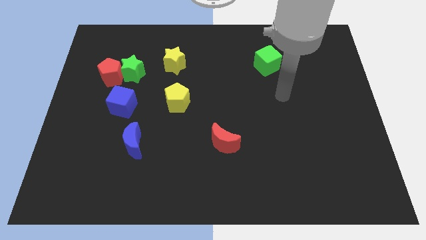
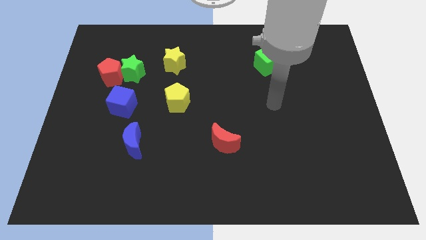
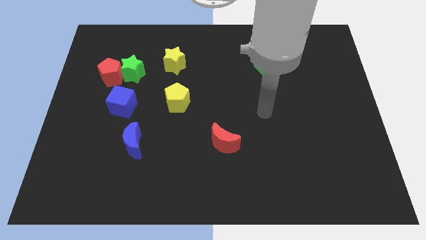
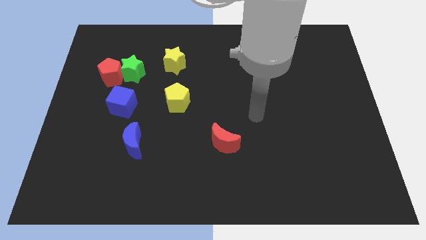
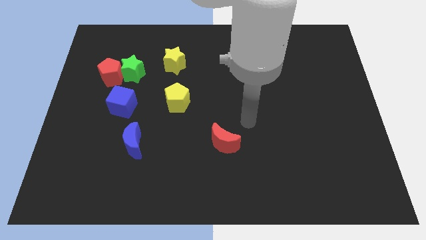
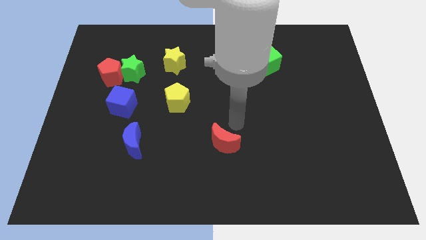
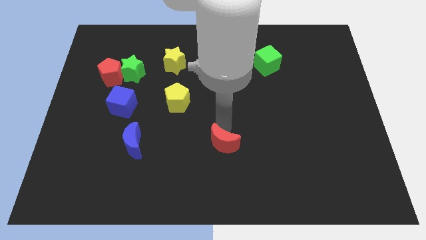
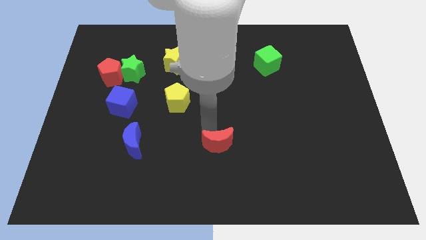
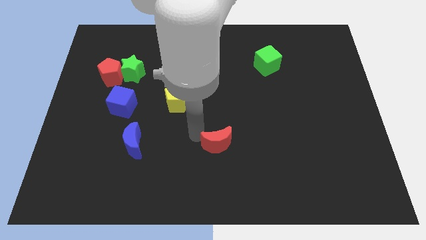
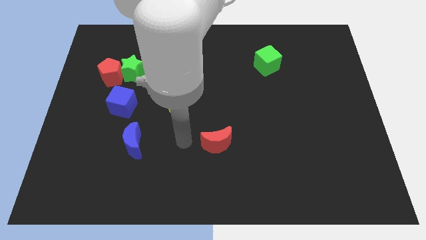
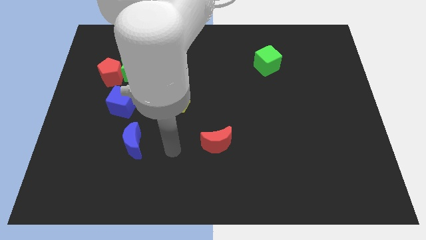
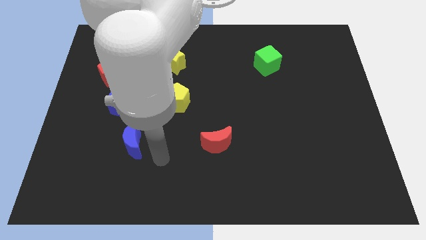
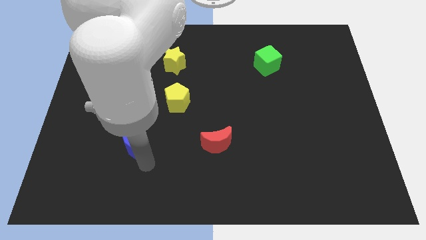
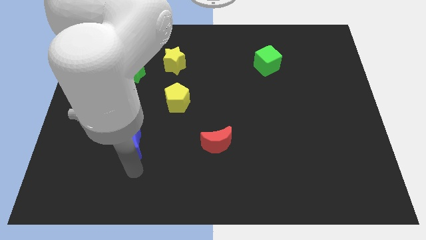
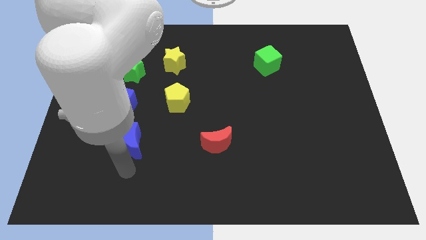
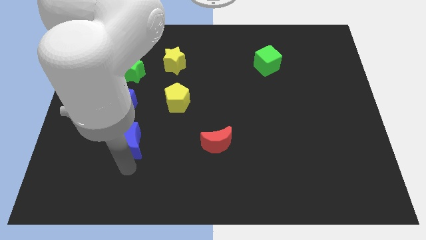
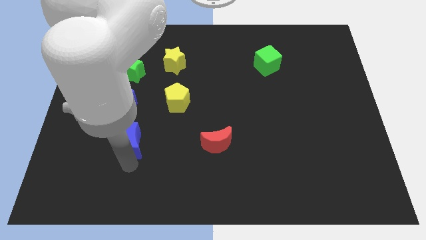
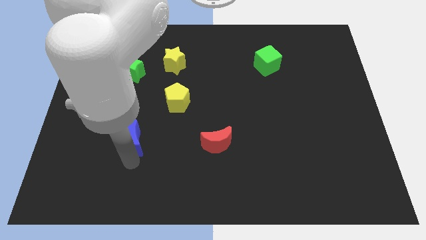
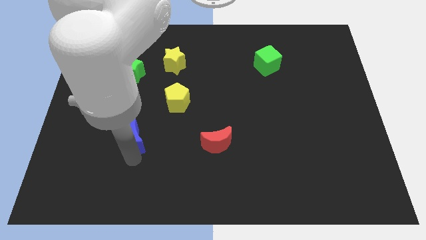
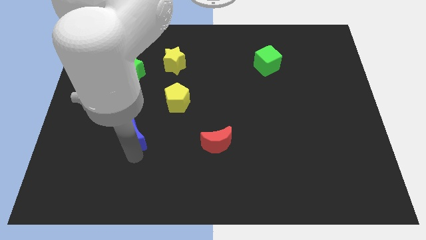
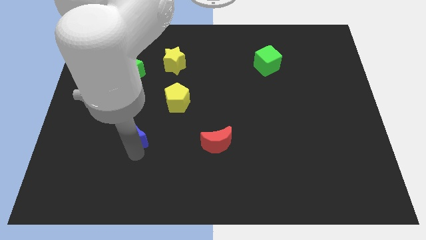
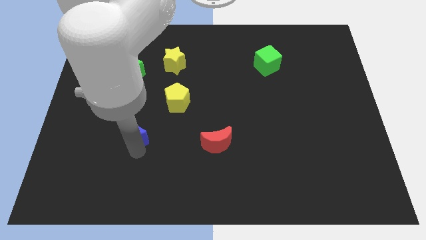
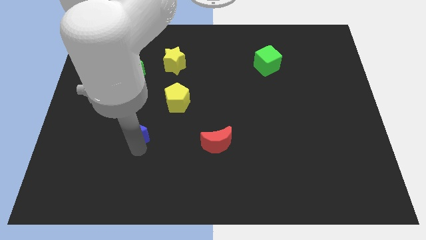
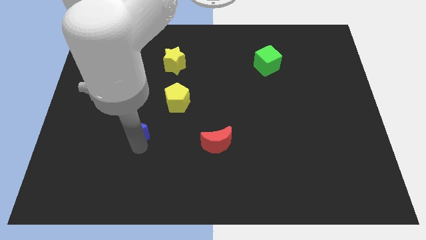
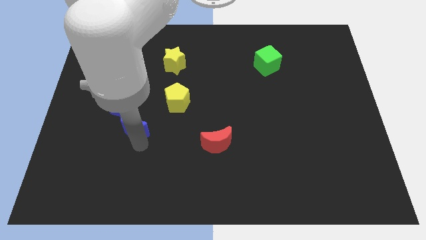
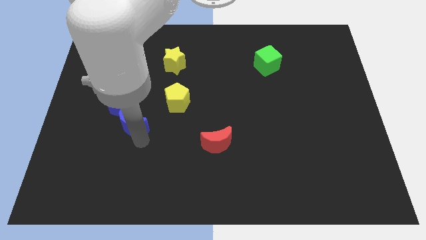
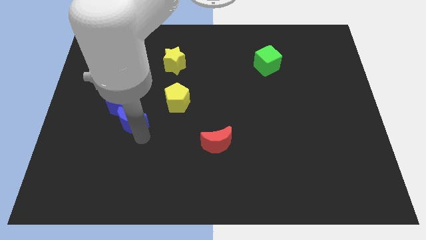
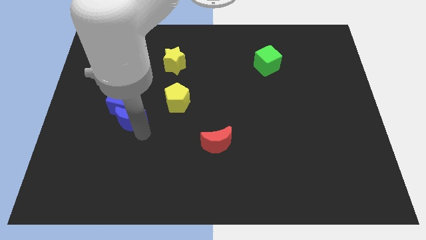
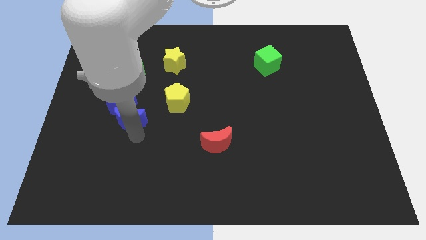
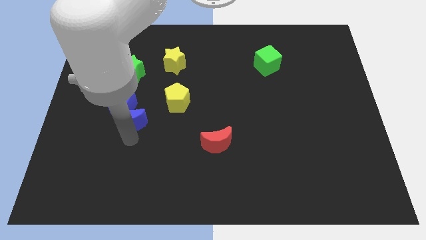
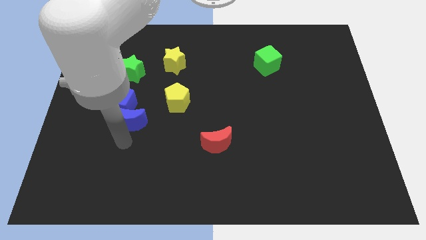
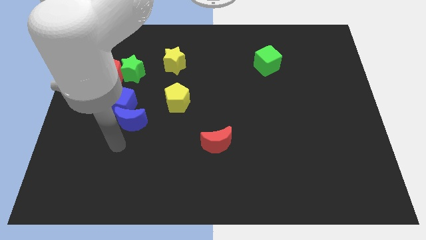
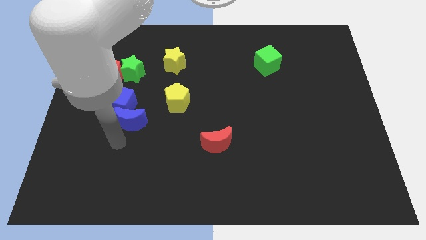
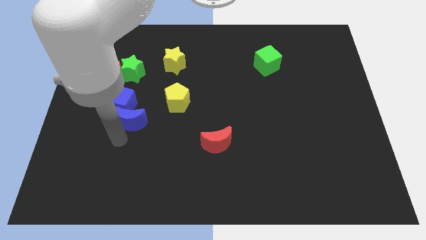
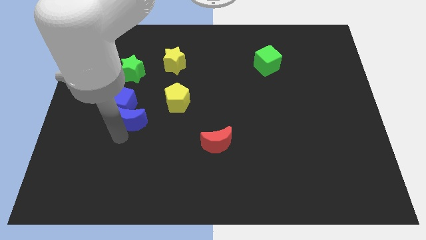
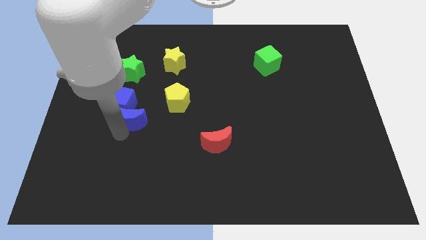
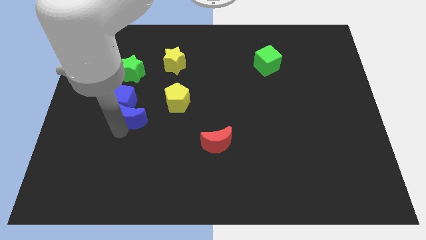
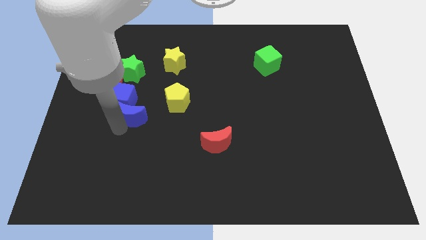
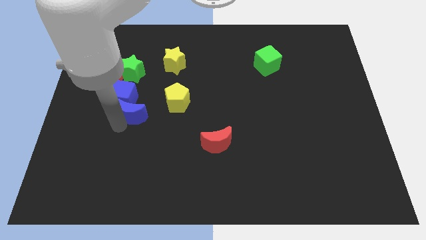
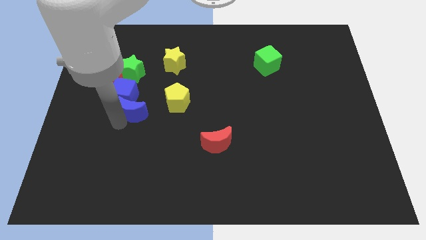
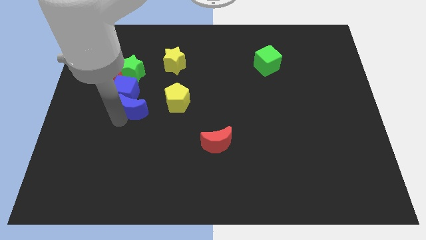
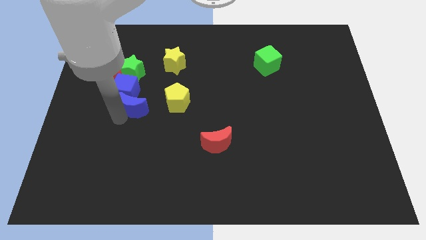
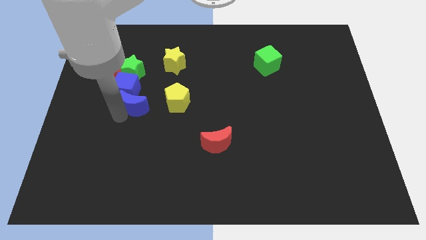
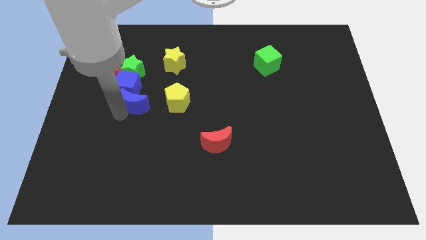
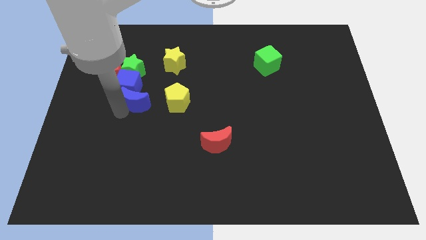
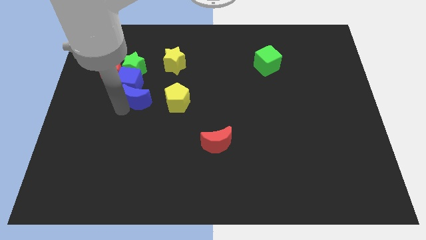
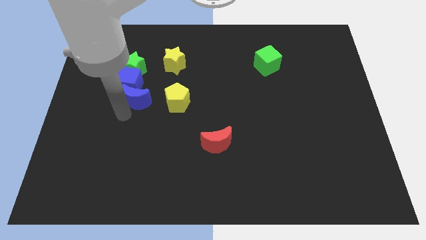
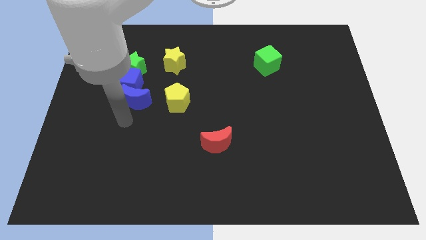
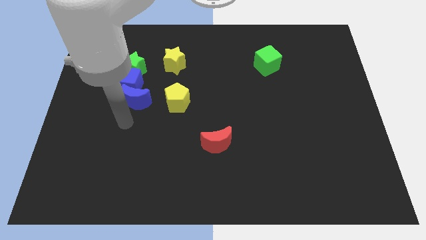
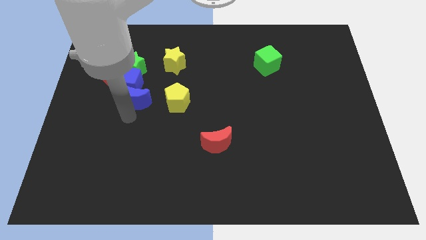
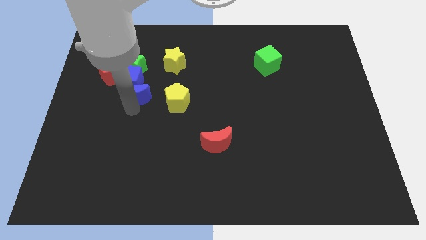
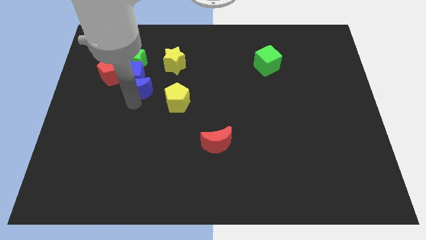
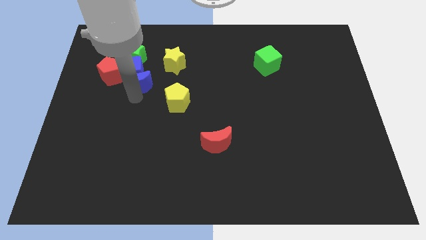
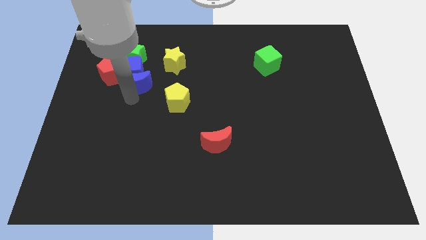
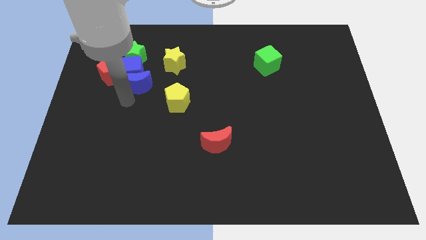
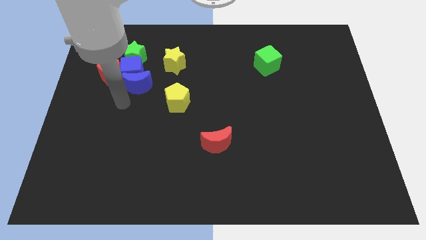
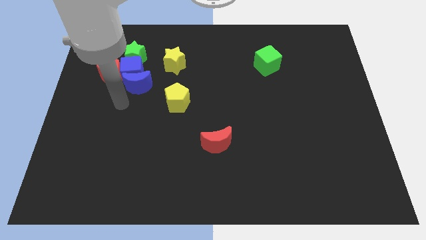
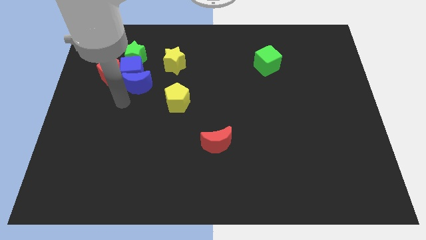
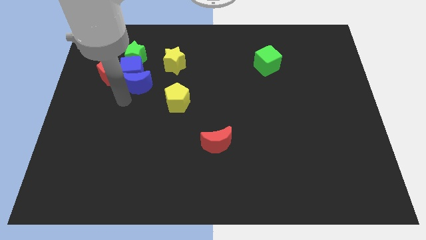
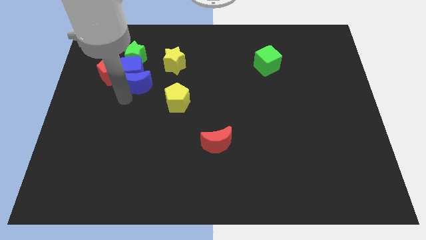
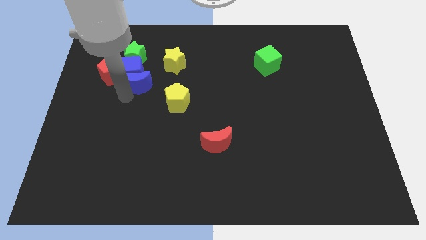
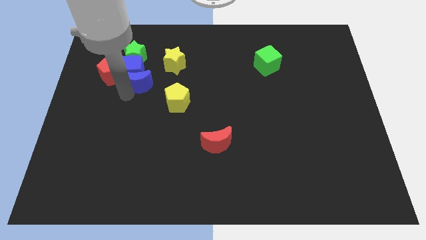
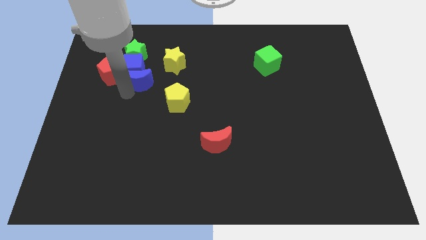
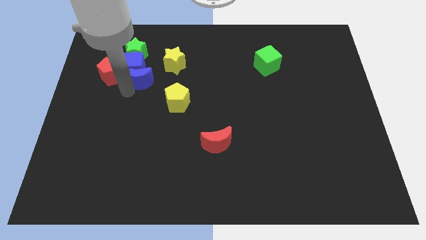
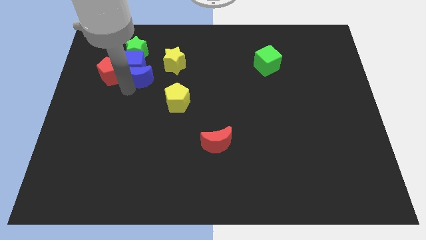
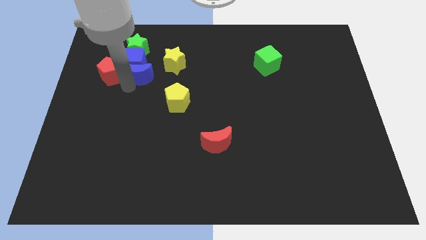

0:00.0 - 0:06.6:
slide the blue moon left of the yellow star
